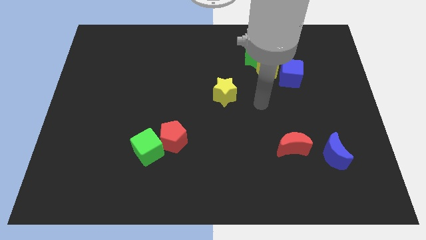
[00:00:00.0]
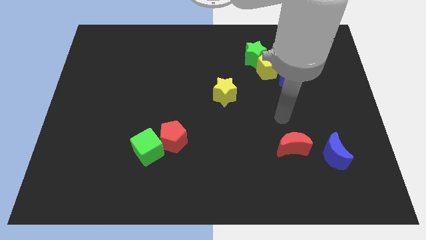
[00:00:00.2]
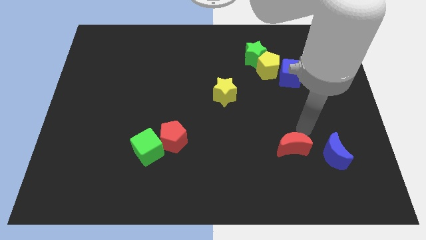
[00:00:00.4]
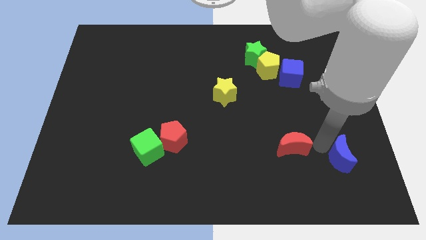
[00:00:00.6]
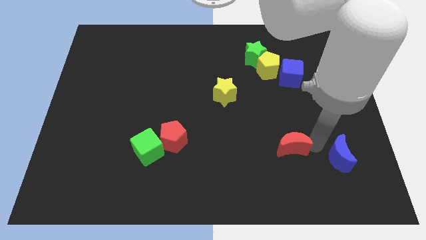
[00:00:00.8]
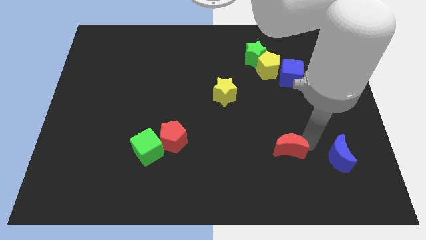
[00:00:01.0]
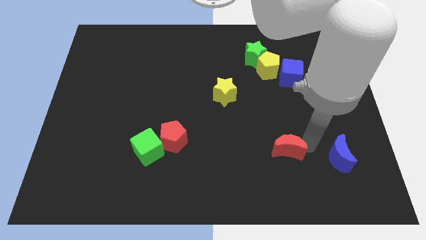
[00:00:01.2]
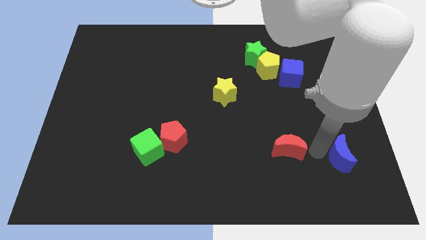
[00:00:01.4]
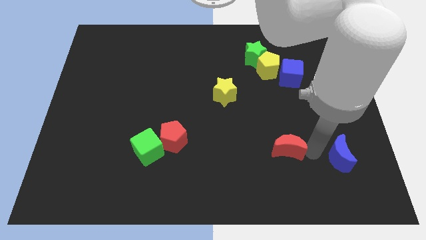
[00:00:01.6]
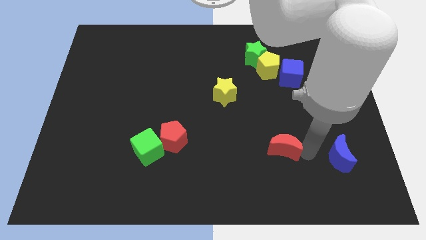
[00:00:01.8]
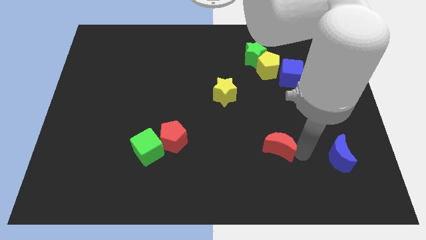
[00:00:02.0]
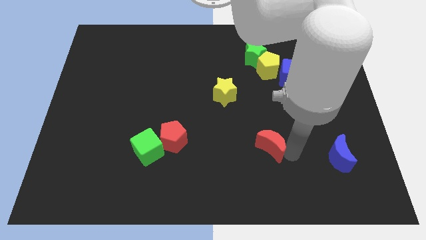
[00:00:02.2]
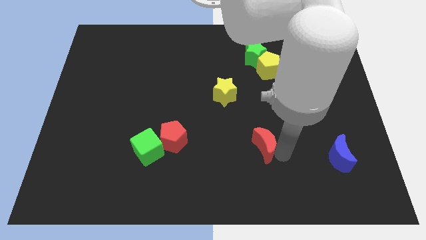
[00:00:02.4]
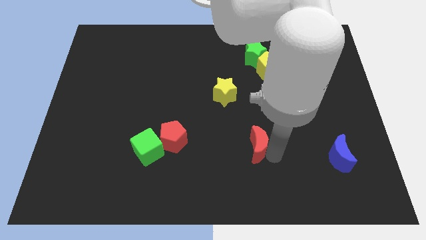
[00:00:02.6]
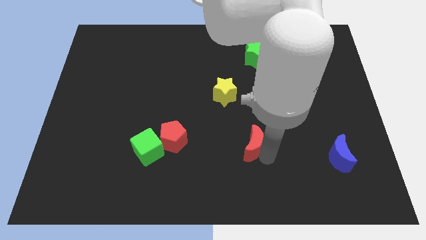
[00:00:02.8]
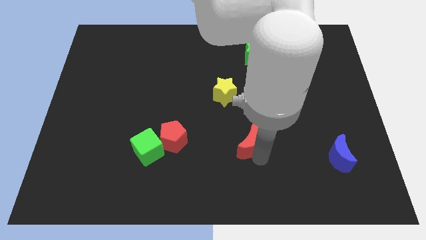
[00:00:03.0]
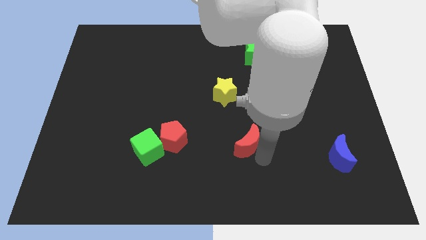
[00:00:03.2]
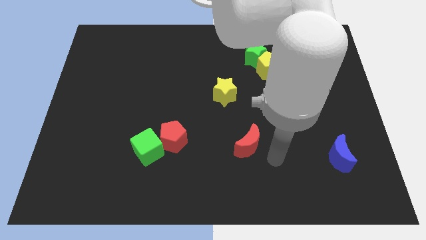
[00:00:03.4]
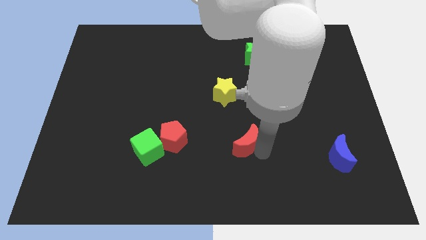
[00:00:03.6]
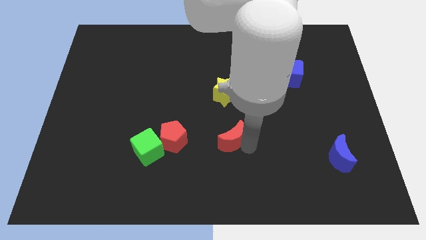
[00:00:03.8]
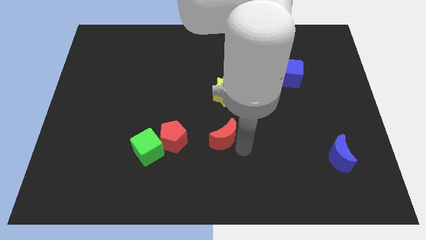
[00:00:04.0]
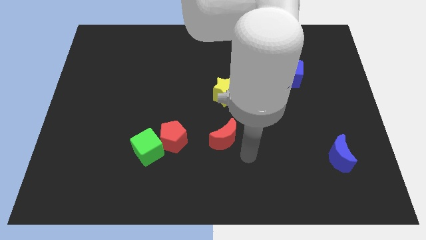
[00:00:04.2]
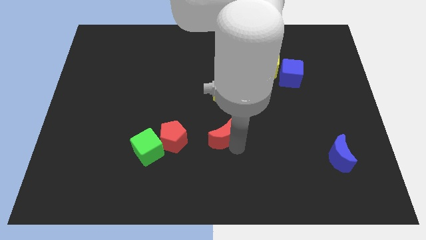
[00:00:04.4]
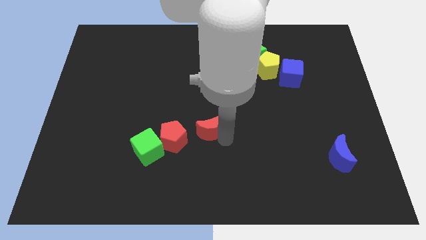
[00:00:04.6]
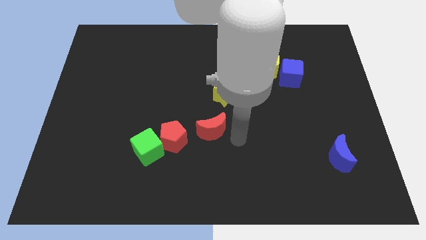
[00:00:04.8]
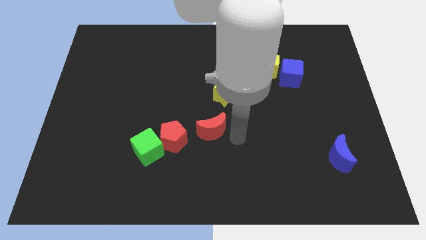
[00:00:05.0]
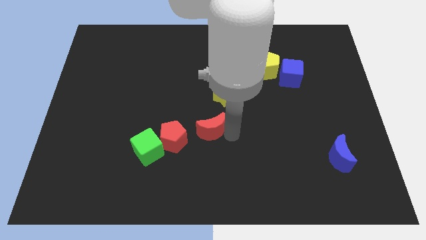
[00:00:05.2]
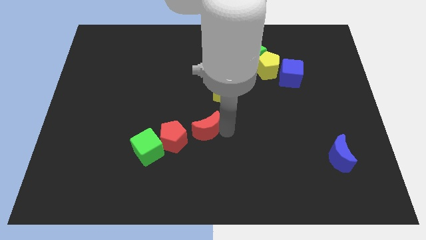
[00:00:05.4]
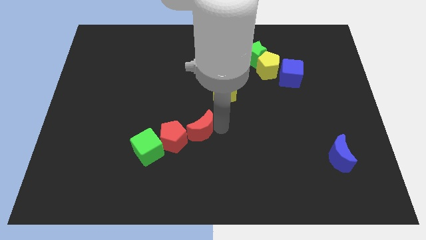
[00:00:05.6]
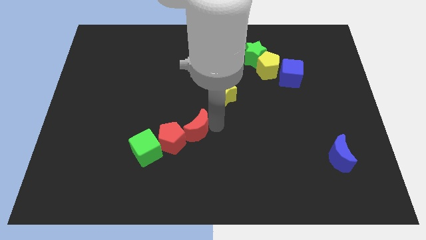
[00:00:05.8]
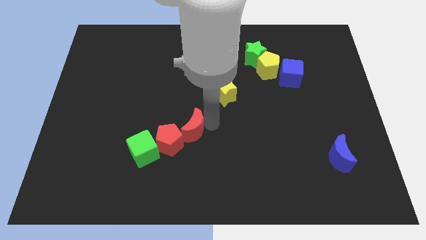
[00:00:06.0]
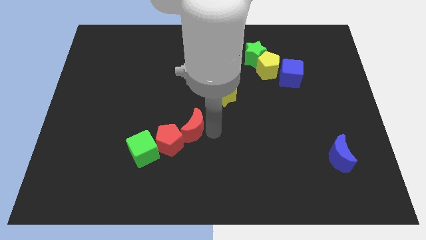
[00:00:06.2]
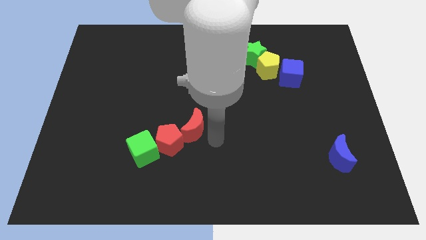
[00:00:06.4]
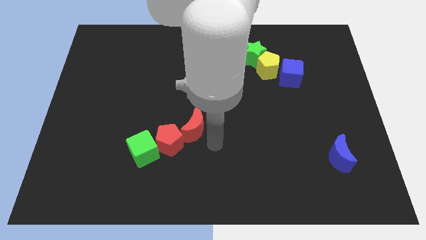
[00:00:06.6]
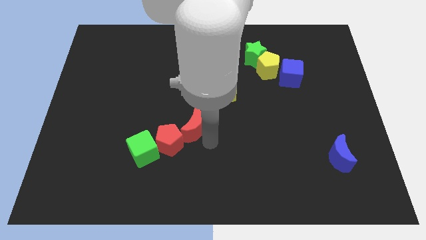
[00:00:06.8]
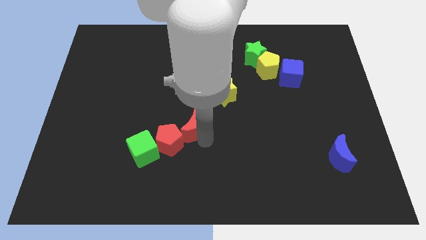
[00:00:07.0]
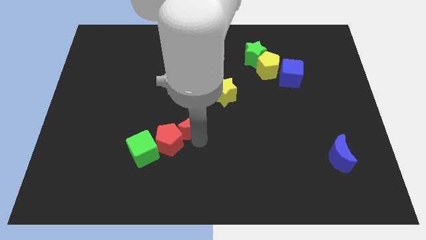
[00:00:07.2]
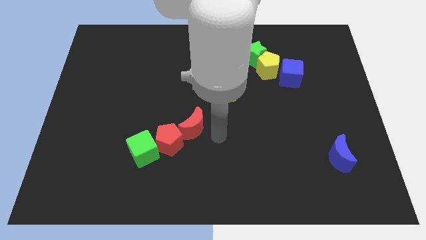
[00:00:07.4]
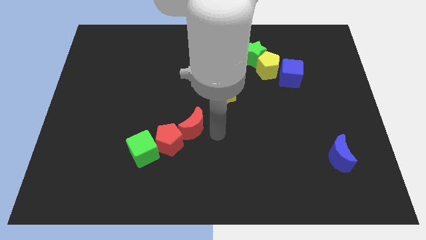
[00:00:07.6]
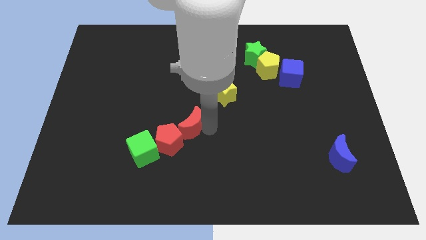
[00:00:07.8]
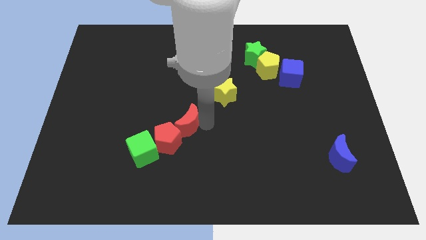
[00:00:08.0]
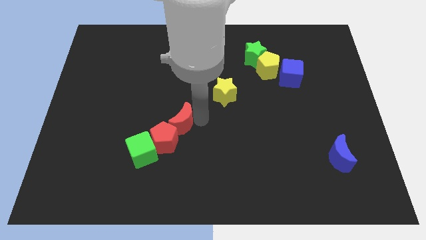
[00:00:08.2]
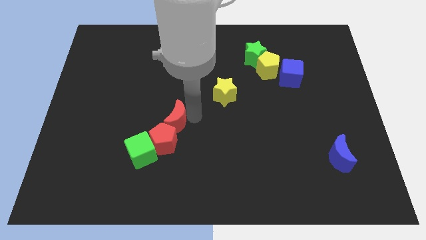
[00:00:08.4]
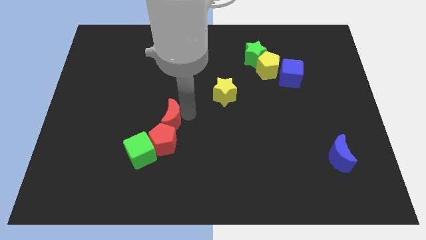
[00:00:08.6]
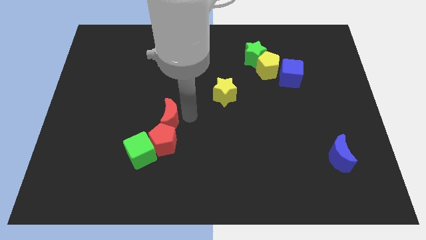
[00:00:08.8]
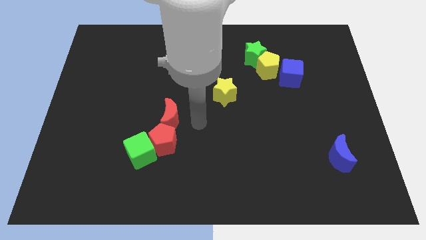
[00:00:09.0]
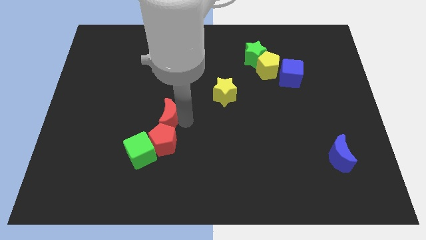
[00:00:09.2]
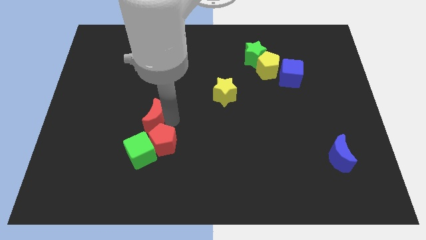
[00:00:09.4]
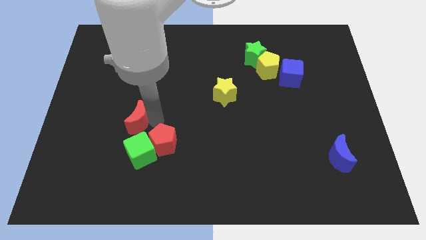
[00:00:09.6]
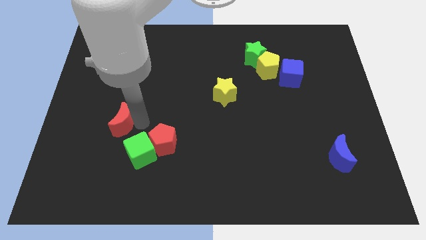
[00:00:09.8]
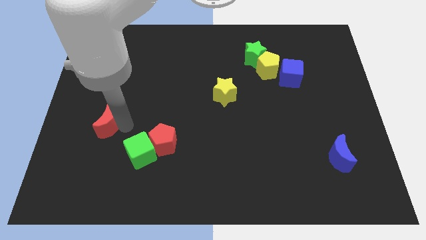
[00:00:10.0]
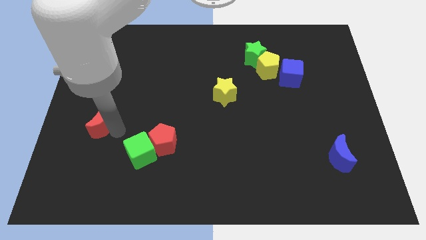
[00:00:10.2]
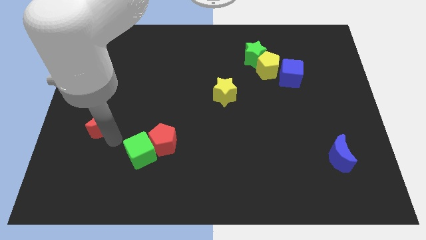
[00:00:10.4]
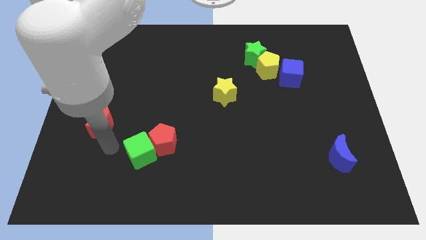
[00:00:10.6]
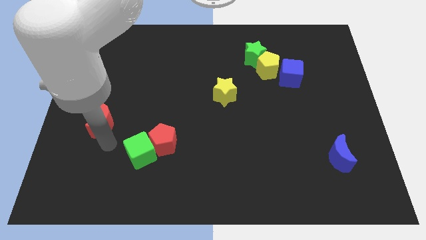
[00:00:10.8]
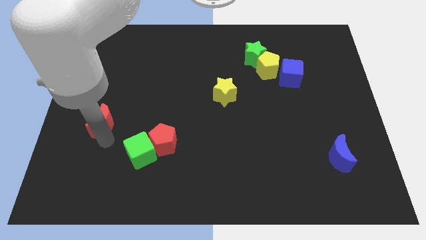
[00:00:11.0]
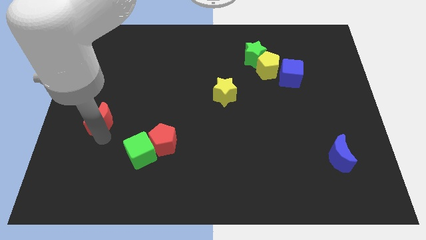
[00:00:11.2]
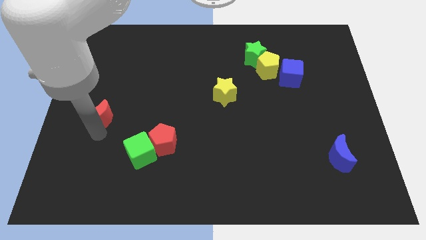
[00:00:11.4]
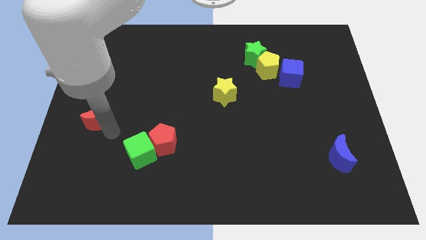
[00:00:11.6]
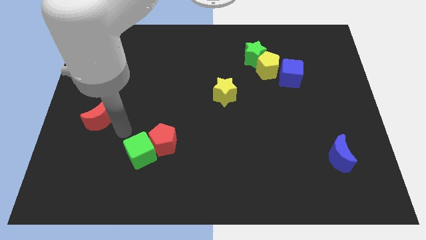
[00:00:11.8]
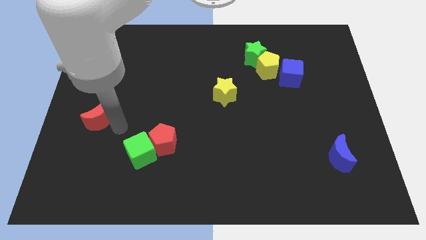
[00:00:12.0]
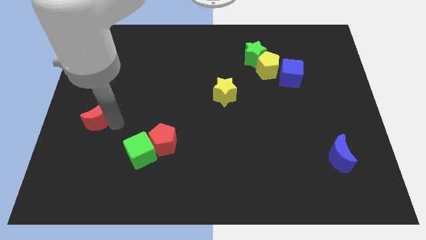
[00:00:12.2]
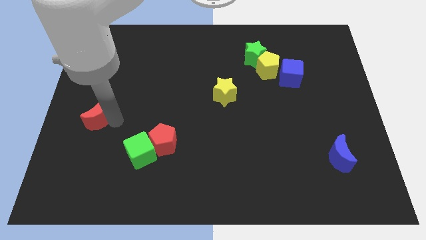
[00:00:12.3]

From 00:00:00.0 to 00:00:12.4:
put the red moon to the left side of the board
